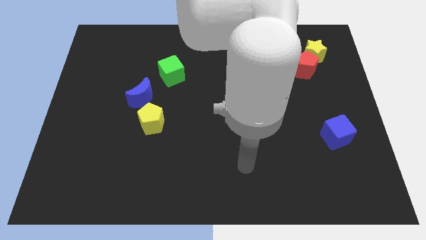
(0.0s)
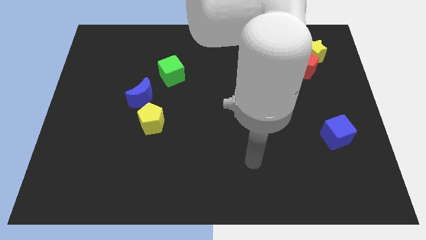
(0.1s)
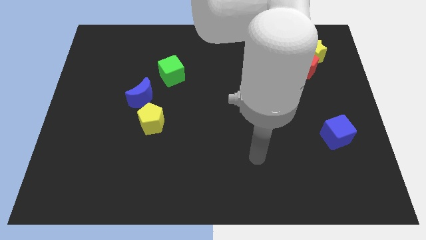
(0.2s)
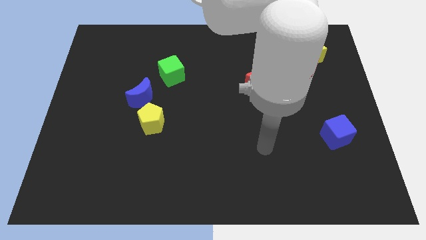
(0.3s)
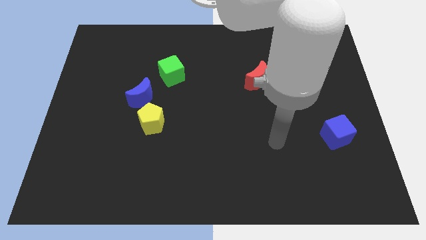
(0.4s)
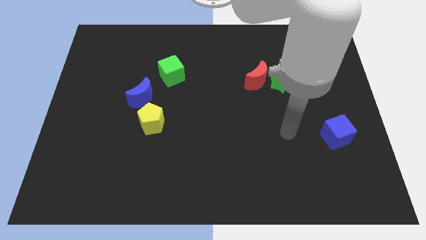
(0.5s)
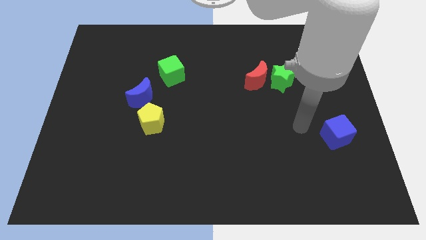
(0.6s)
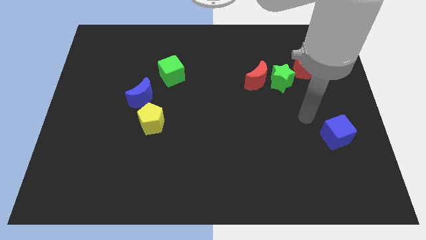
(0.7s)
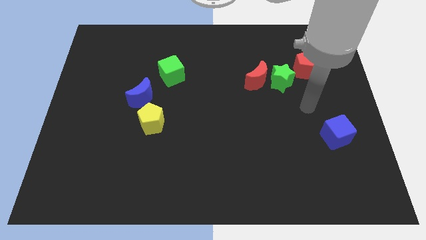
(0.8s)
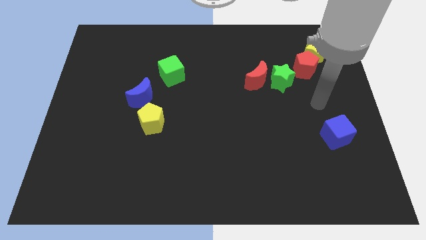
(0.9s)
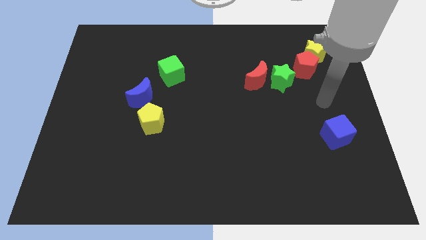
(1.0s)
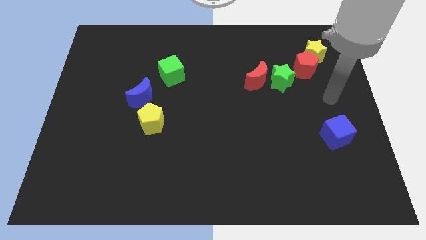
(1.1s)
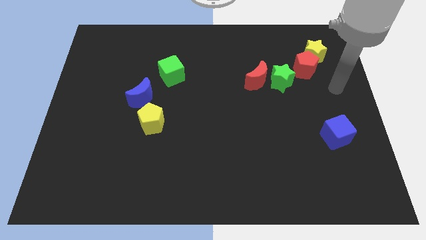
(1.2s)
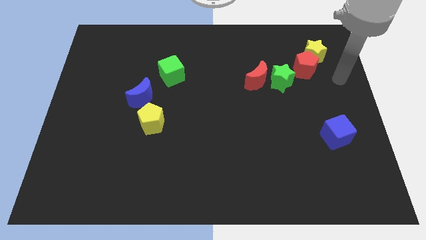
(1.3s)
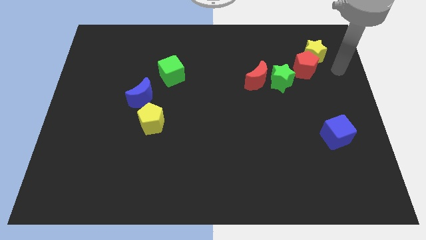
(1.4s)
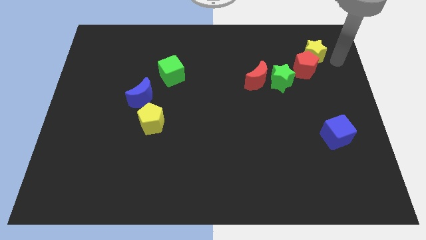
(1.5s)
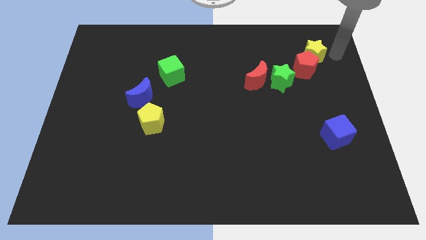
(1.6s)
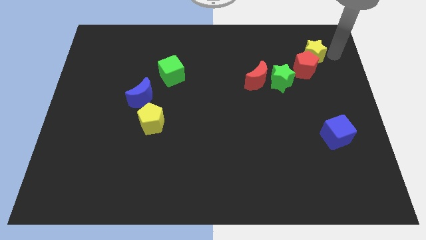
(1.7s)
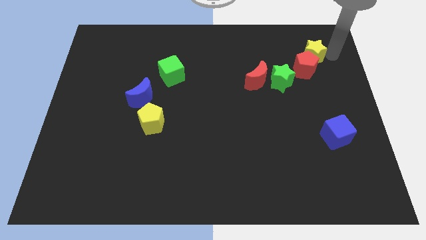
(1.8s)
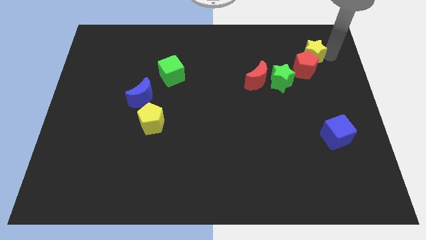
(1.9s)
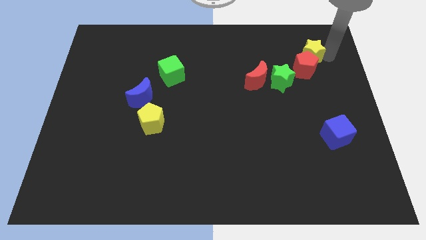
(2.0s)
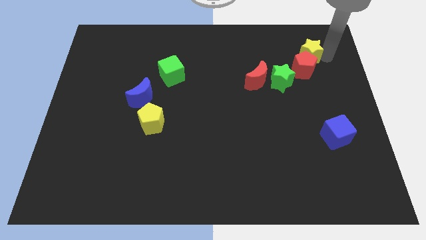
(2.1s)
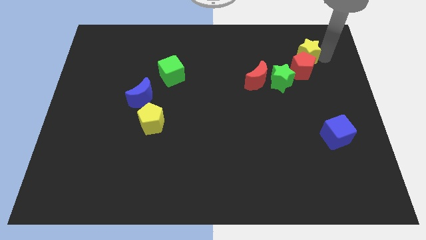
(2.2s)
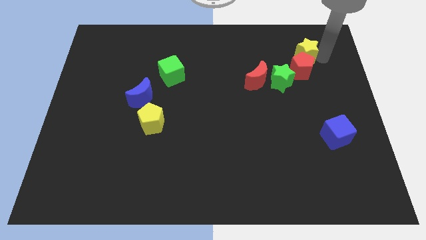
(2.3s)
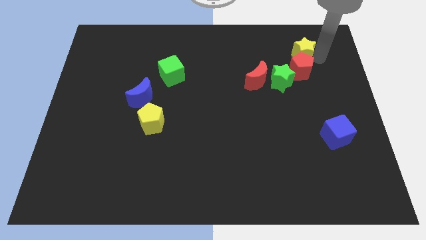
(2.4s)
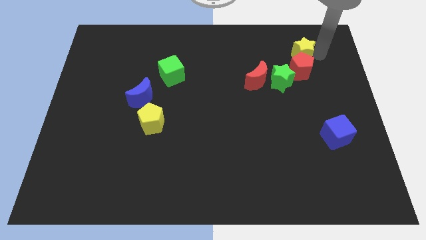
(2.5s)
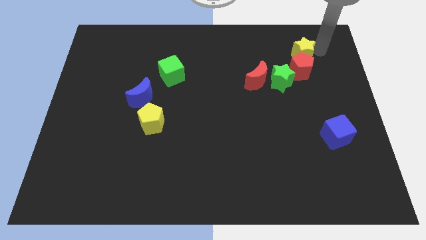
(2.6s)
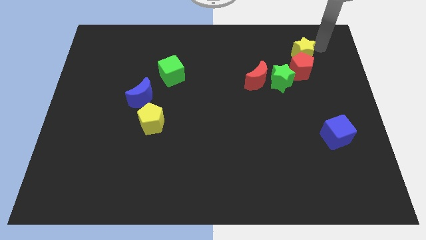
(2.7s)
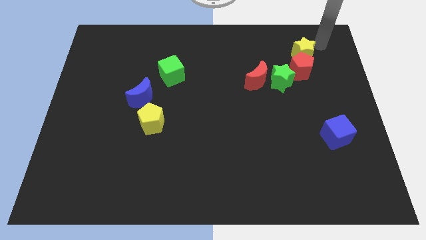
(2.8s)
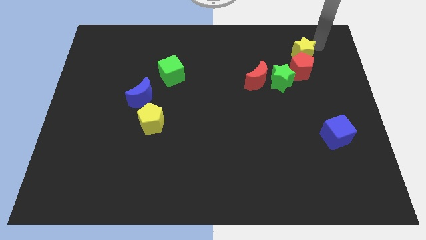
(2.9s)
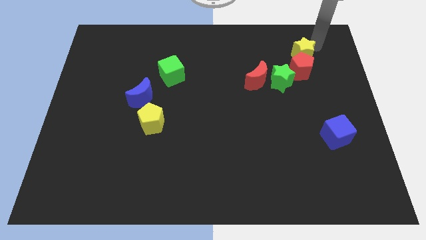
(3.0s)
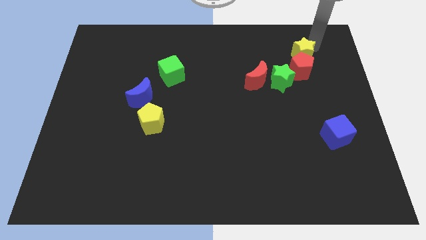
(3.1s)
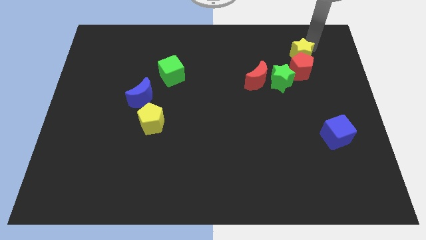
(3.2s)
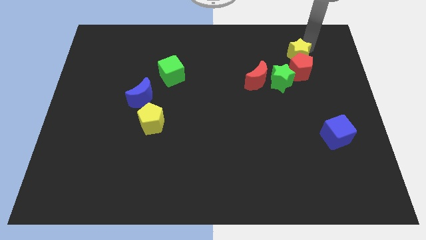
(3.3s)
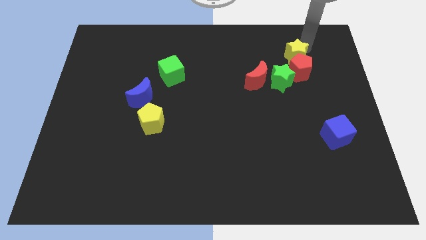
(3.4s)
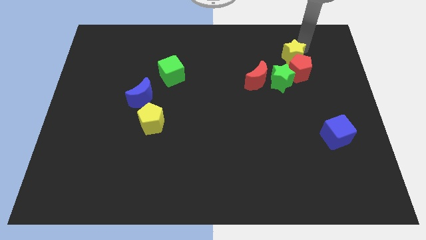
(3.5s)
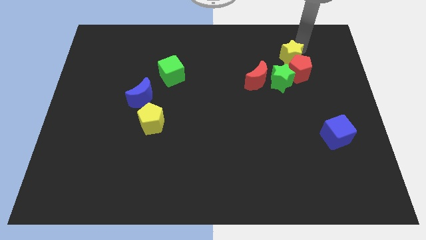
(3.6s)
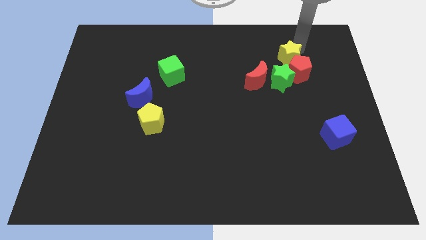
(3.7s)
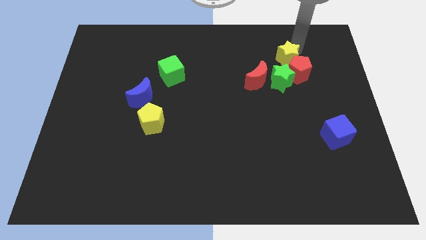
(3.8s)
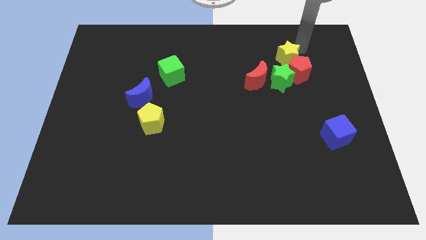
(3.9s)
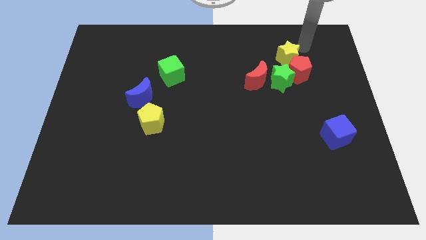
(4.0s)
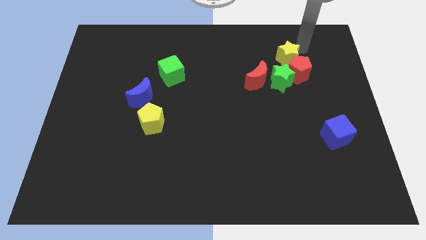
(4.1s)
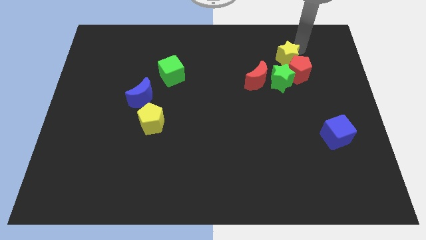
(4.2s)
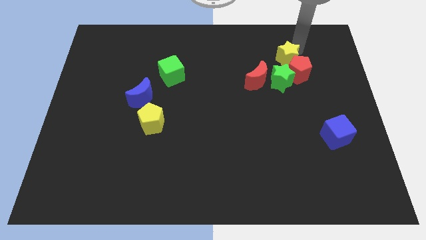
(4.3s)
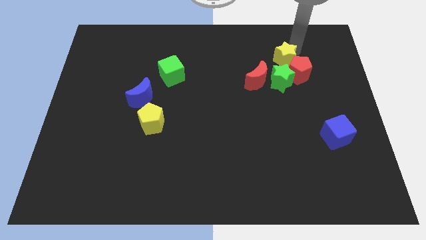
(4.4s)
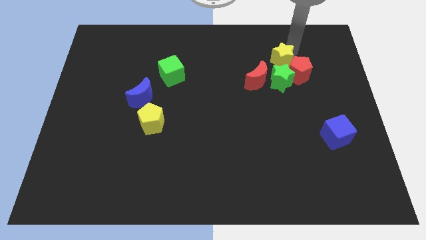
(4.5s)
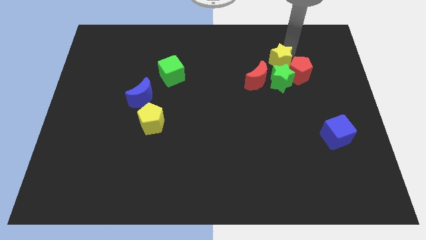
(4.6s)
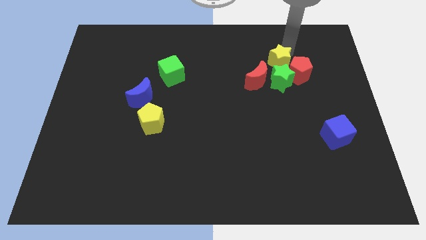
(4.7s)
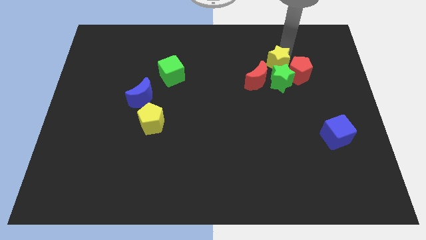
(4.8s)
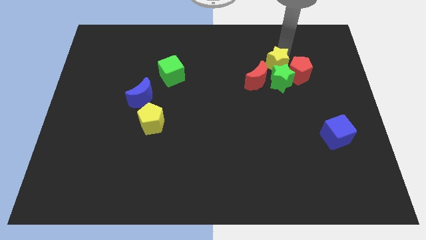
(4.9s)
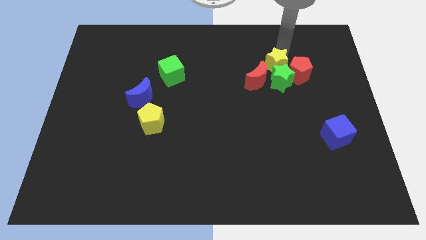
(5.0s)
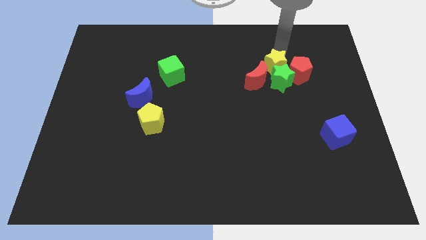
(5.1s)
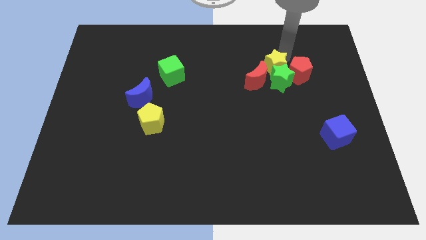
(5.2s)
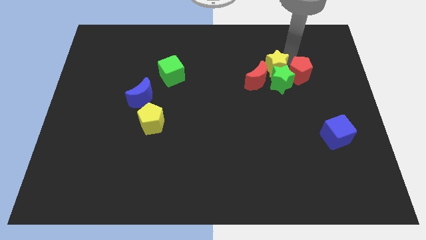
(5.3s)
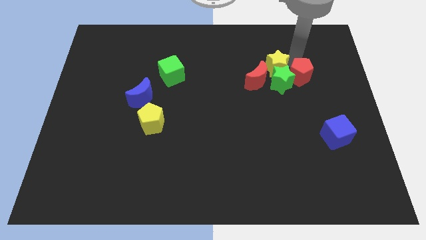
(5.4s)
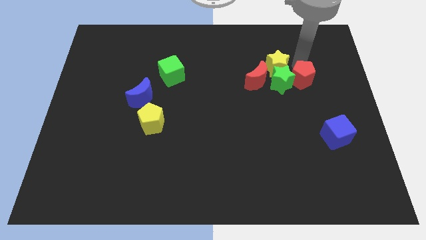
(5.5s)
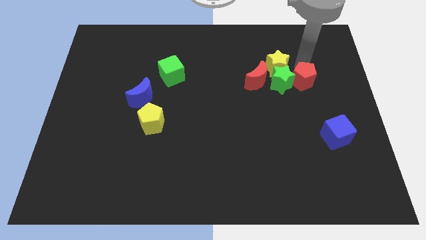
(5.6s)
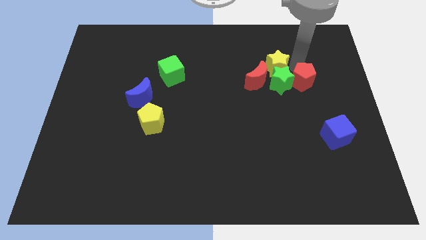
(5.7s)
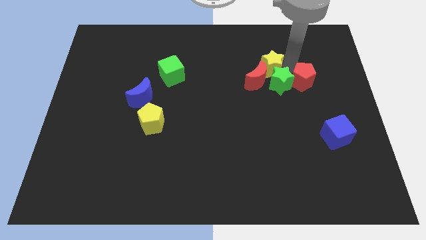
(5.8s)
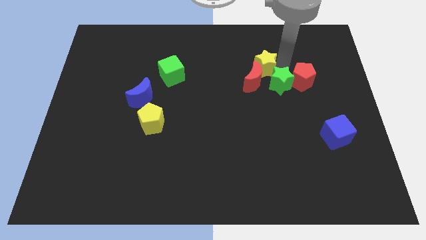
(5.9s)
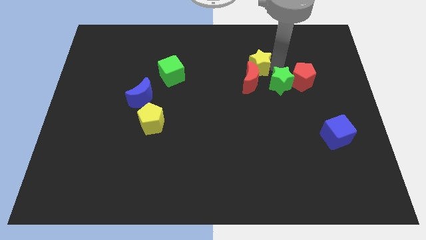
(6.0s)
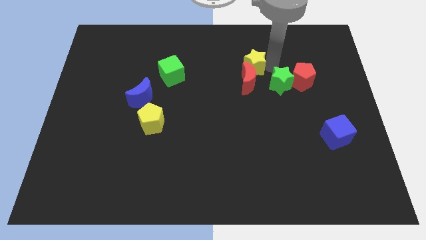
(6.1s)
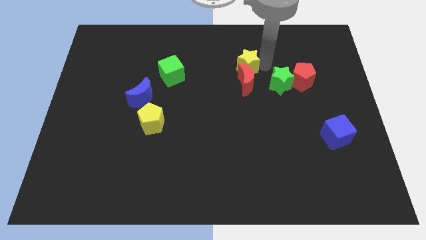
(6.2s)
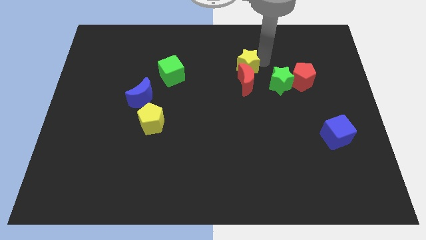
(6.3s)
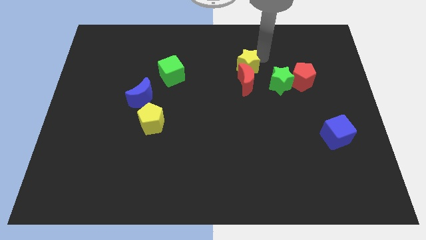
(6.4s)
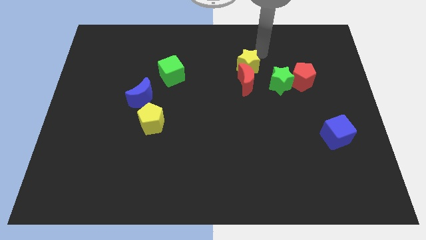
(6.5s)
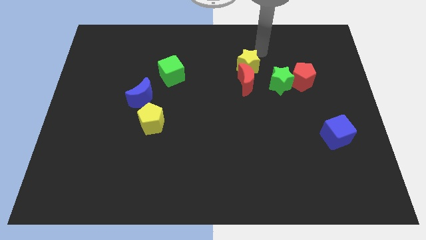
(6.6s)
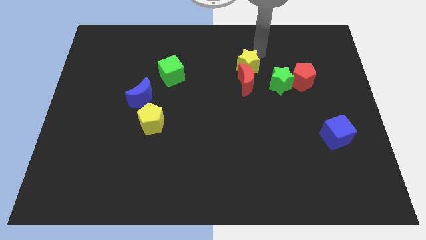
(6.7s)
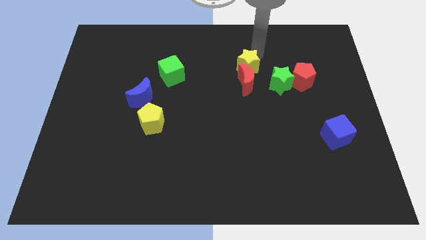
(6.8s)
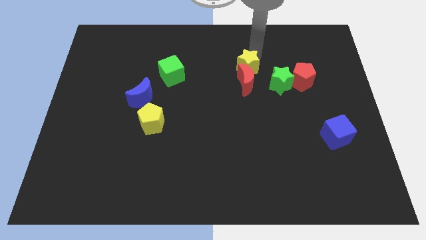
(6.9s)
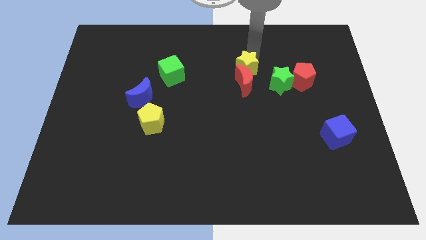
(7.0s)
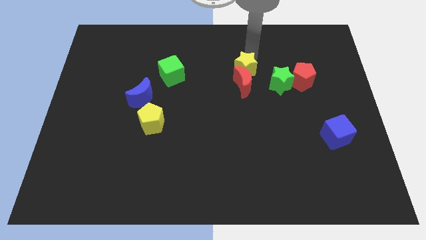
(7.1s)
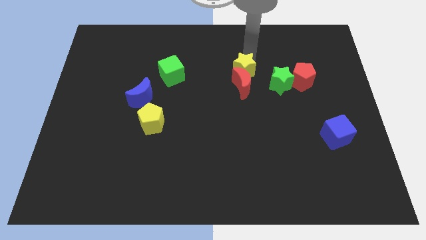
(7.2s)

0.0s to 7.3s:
move the yellow star to the middle of the board
